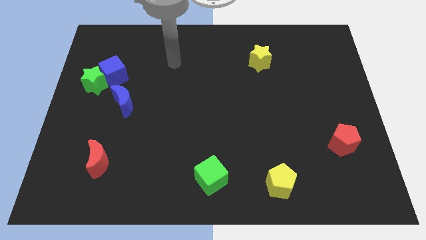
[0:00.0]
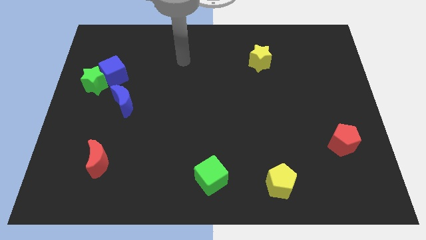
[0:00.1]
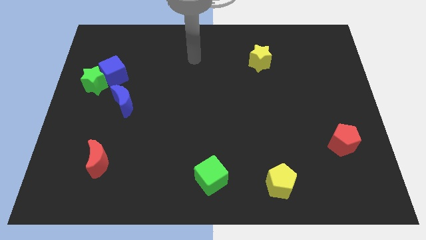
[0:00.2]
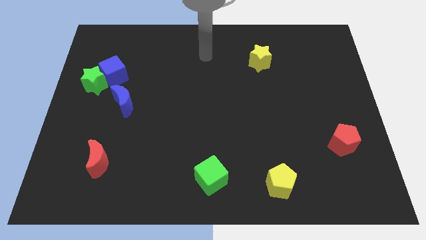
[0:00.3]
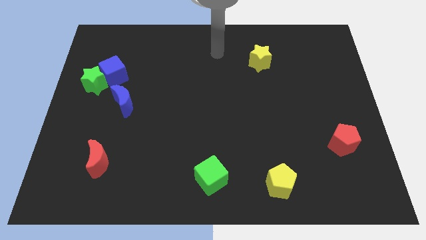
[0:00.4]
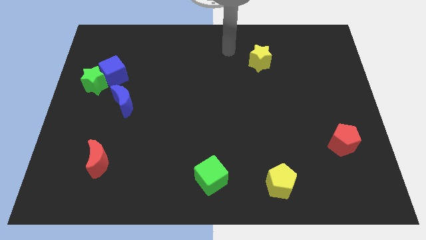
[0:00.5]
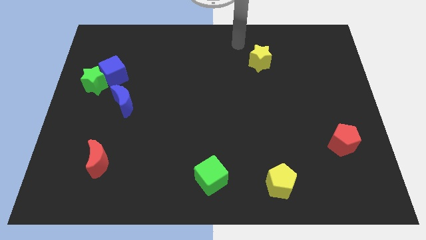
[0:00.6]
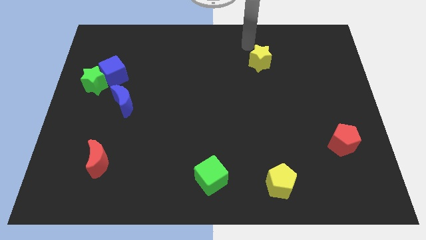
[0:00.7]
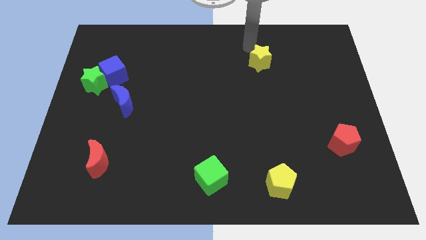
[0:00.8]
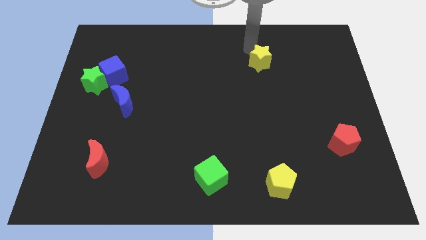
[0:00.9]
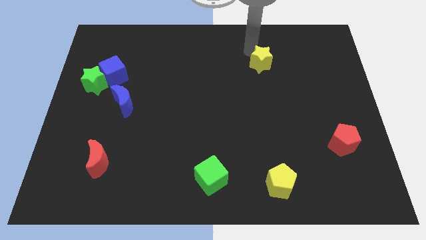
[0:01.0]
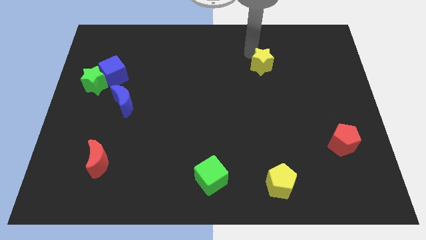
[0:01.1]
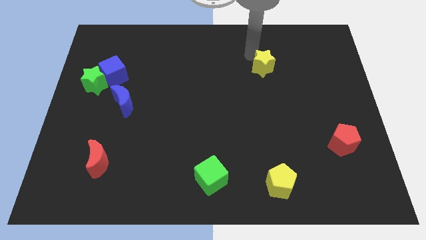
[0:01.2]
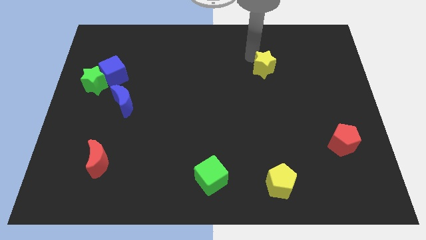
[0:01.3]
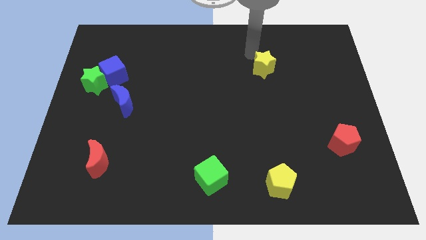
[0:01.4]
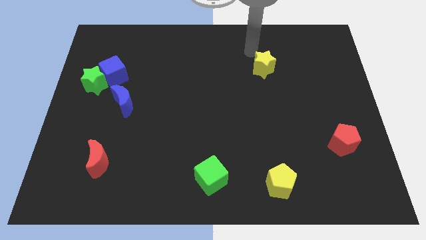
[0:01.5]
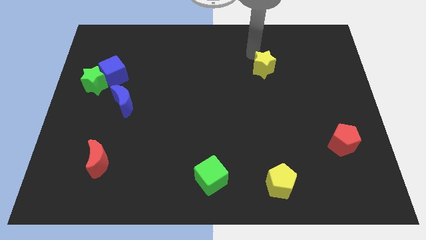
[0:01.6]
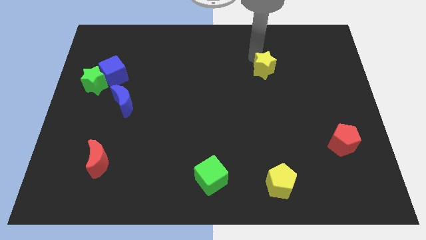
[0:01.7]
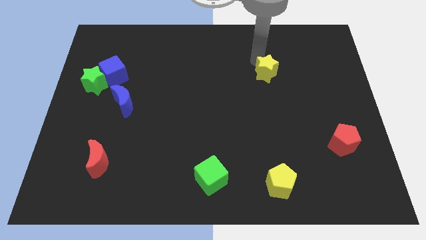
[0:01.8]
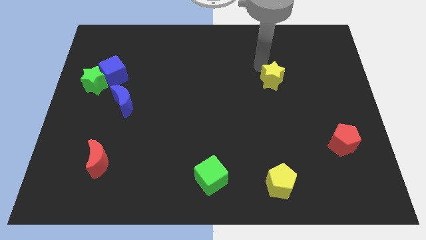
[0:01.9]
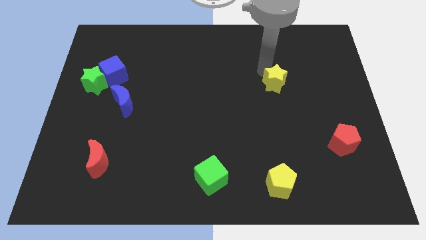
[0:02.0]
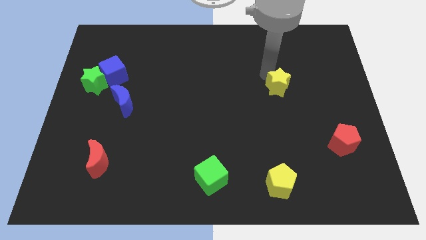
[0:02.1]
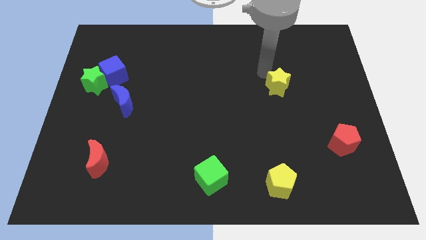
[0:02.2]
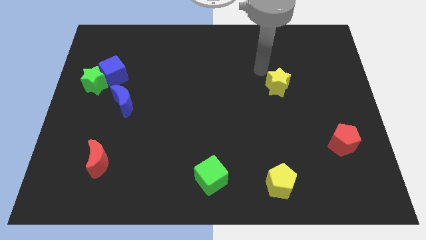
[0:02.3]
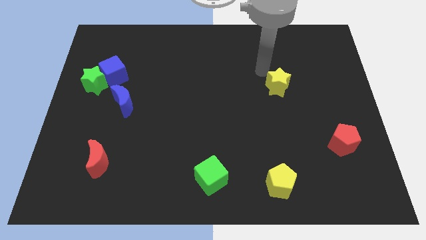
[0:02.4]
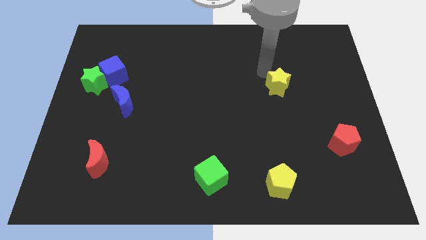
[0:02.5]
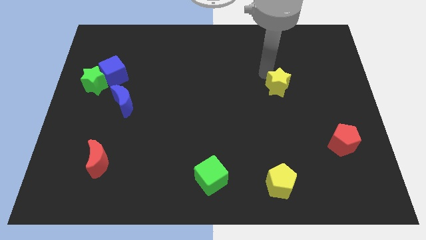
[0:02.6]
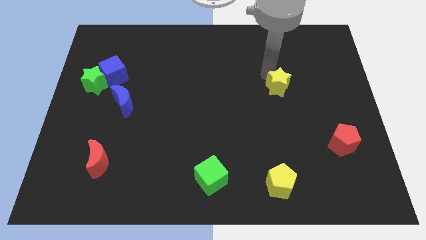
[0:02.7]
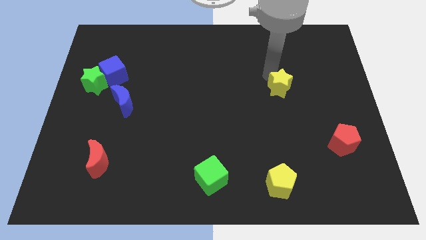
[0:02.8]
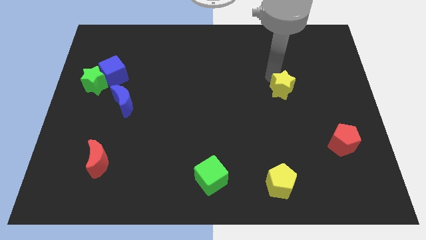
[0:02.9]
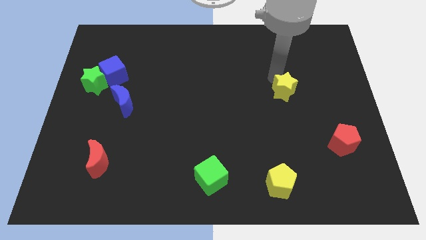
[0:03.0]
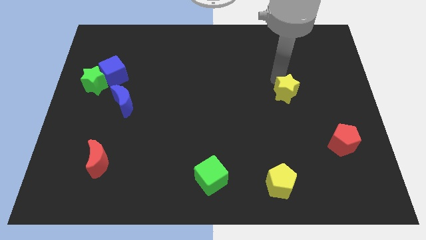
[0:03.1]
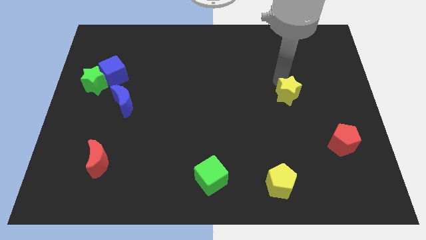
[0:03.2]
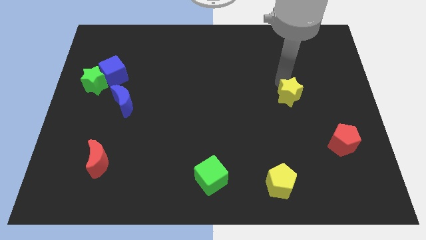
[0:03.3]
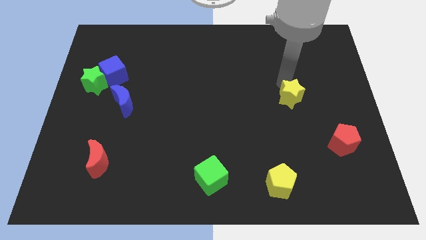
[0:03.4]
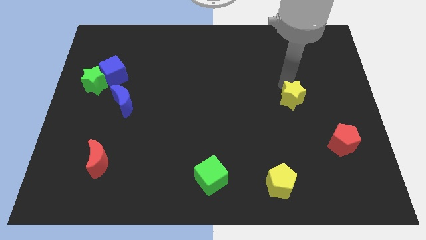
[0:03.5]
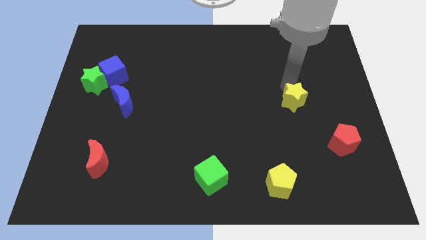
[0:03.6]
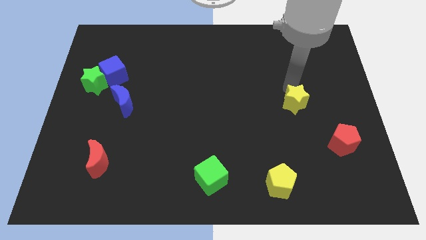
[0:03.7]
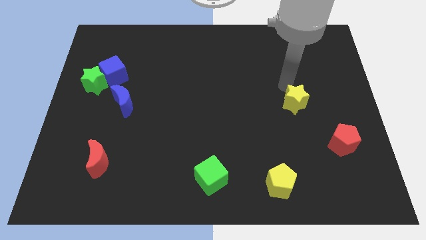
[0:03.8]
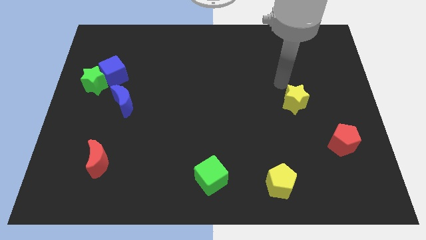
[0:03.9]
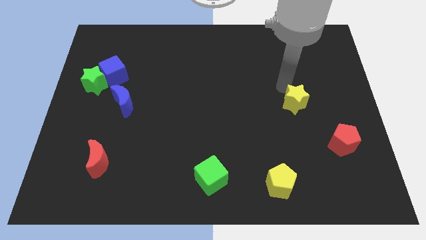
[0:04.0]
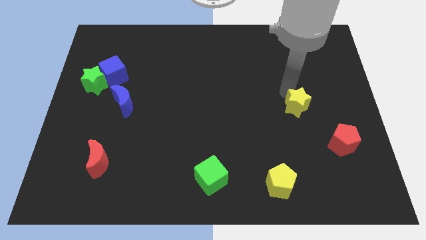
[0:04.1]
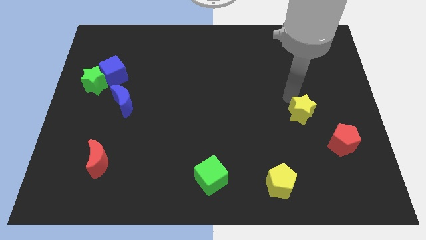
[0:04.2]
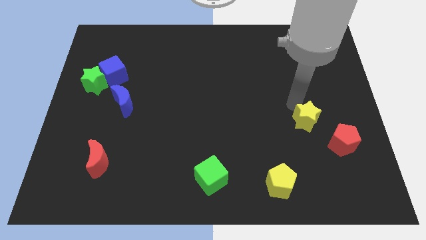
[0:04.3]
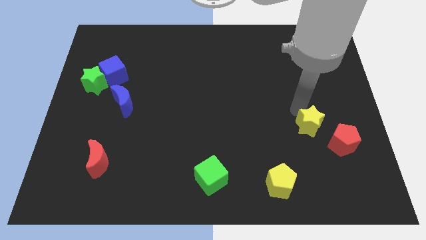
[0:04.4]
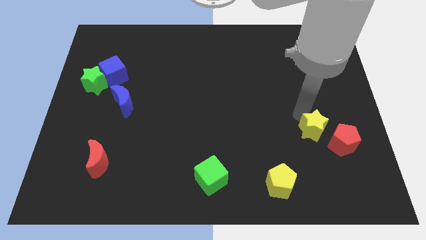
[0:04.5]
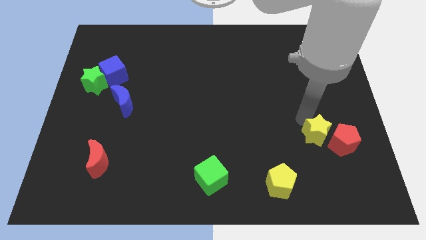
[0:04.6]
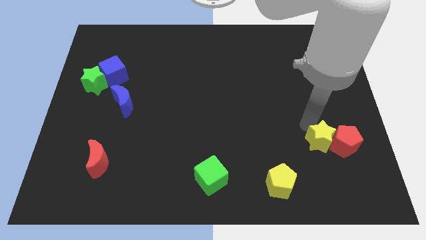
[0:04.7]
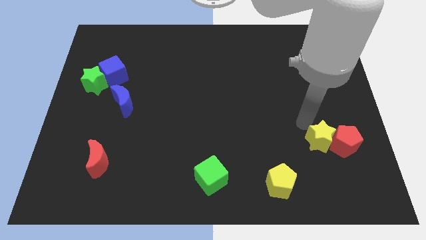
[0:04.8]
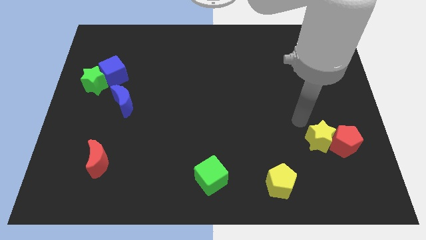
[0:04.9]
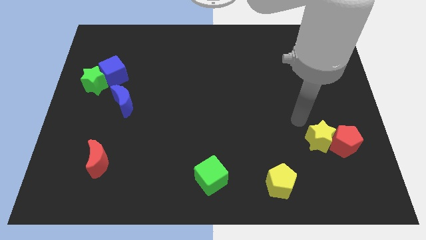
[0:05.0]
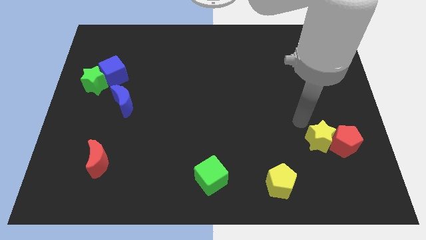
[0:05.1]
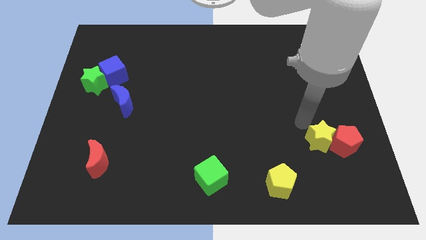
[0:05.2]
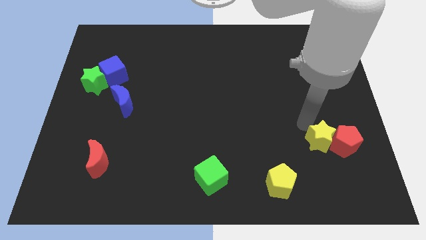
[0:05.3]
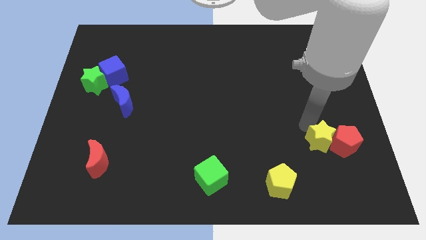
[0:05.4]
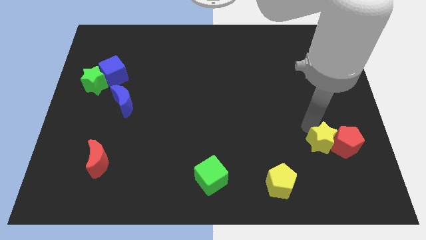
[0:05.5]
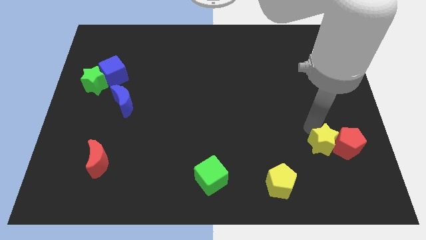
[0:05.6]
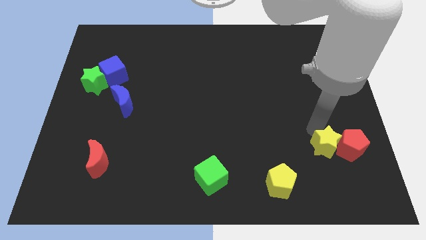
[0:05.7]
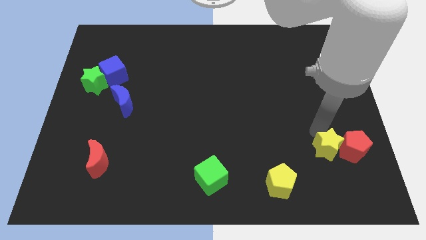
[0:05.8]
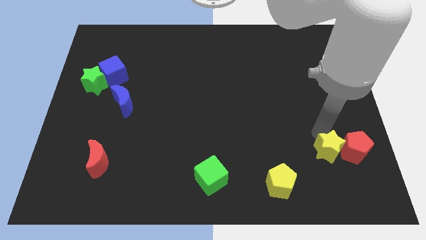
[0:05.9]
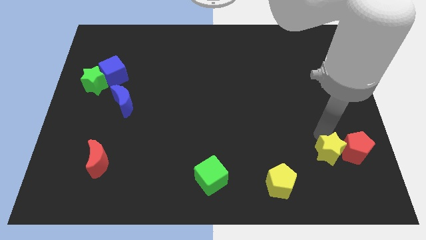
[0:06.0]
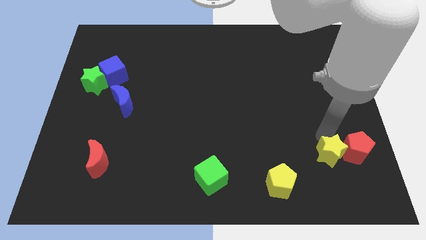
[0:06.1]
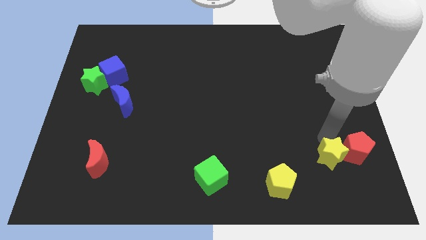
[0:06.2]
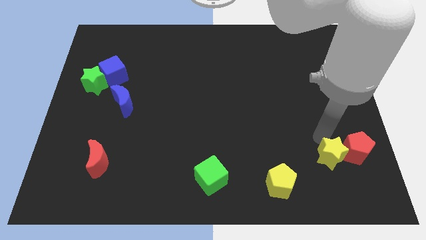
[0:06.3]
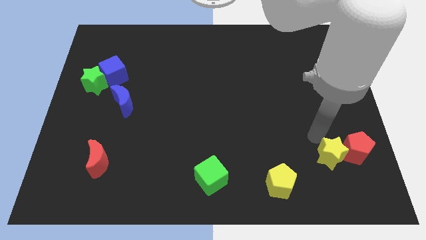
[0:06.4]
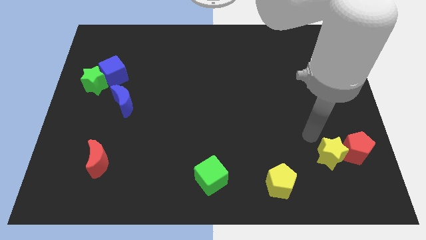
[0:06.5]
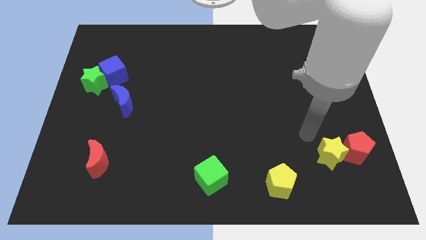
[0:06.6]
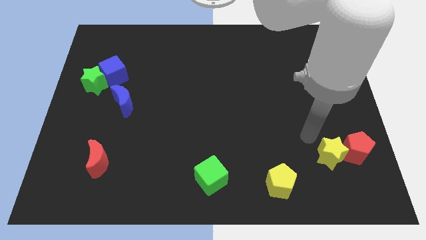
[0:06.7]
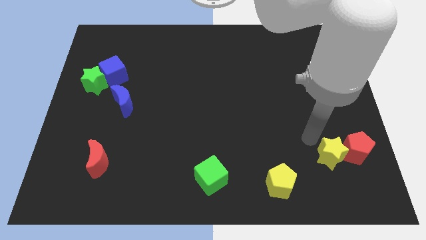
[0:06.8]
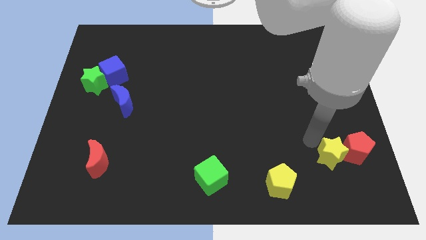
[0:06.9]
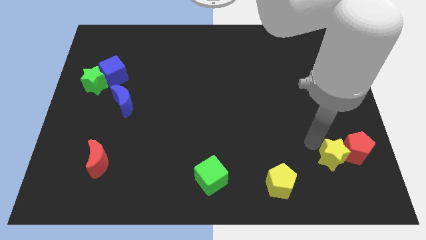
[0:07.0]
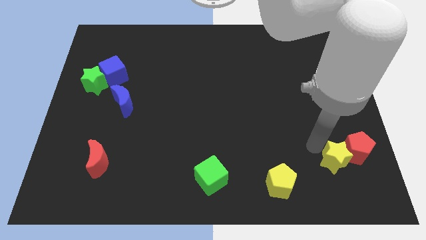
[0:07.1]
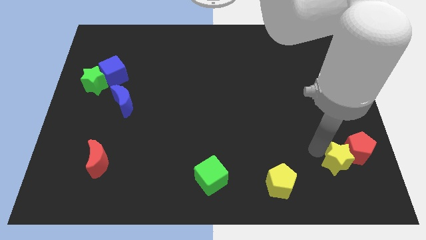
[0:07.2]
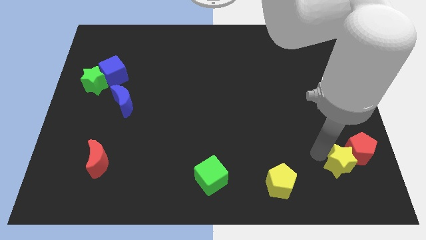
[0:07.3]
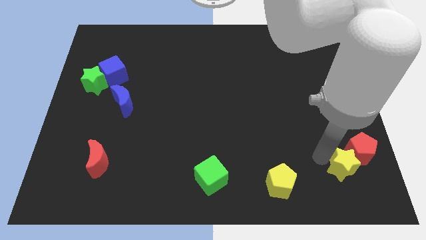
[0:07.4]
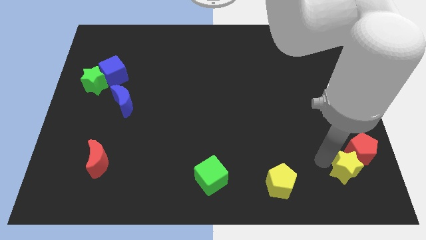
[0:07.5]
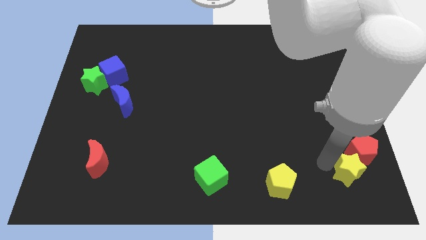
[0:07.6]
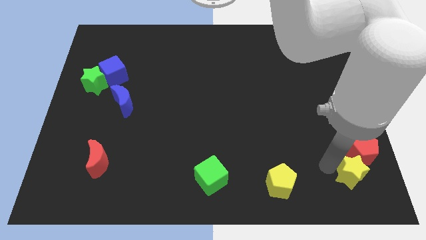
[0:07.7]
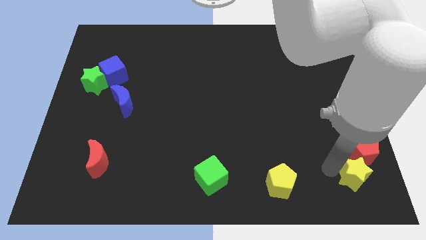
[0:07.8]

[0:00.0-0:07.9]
push the yellow star to the bottom right of the board
